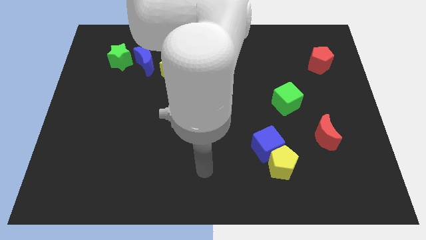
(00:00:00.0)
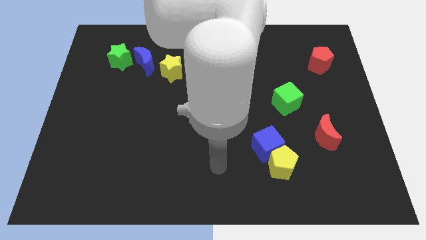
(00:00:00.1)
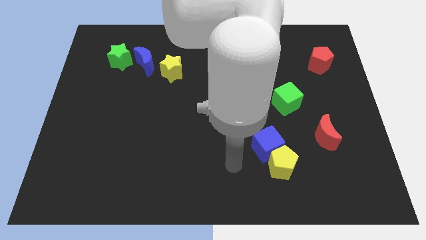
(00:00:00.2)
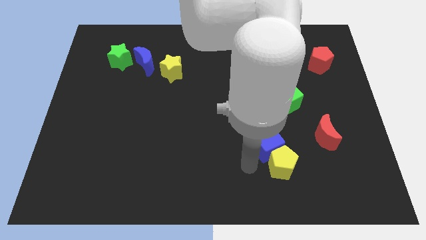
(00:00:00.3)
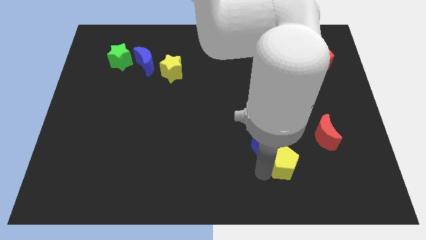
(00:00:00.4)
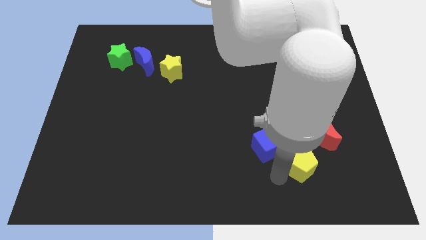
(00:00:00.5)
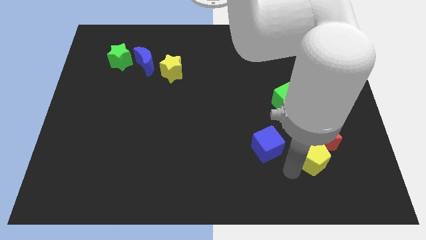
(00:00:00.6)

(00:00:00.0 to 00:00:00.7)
separate the blue cube from the yellow pentagon

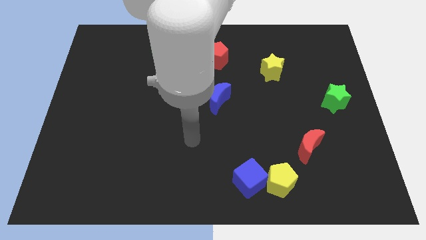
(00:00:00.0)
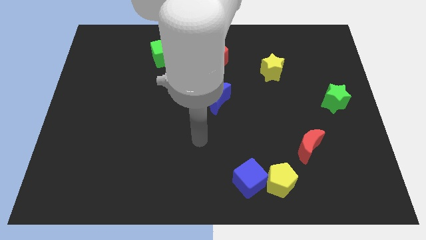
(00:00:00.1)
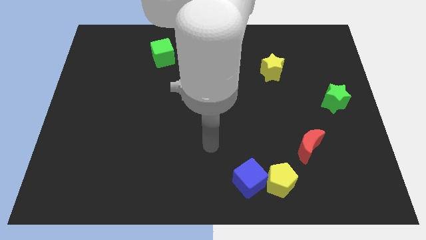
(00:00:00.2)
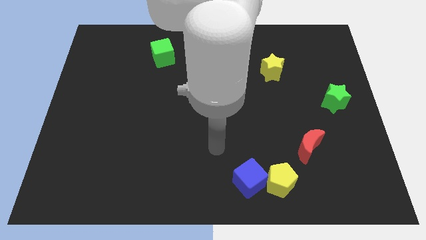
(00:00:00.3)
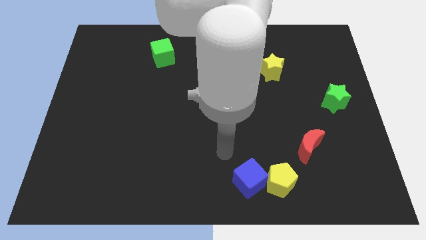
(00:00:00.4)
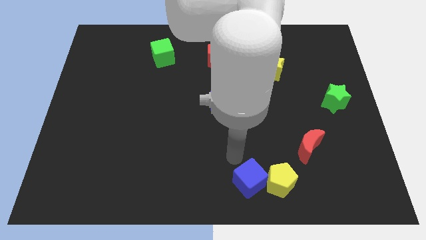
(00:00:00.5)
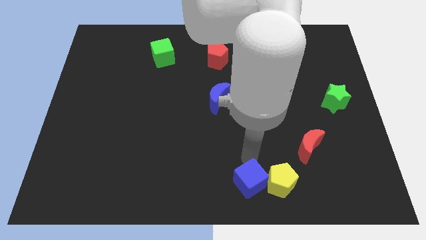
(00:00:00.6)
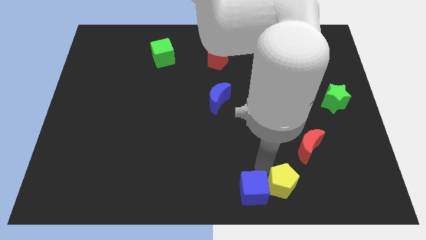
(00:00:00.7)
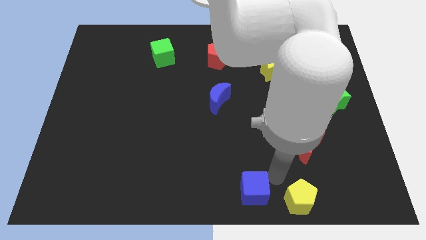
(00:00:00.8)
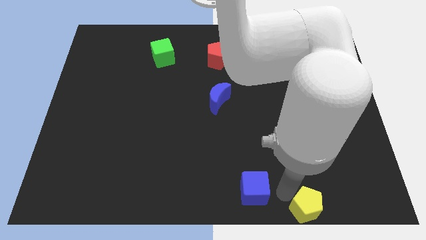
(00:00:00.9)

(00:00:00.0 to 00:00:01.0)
pull the blue cube apart from the yellow pentagon

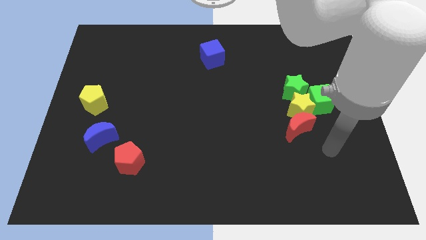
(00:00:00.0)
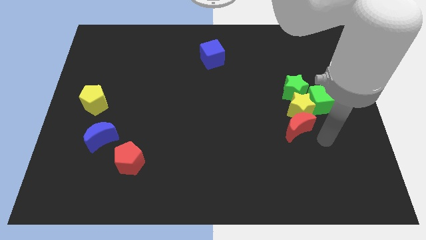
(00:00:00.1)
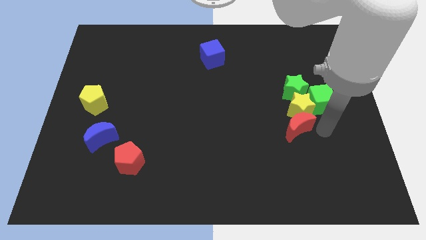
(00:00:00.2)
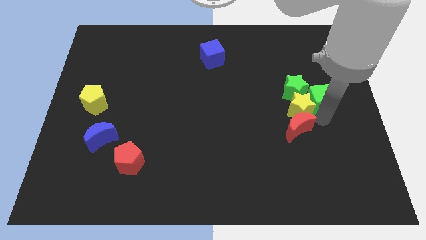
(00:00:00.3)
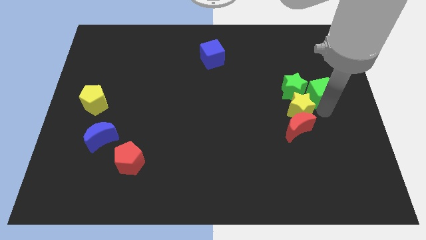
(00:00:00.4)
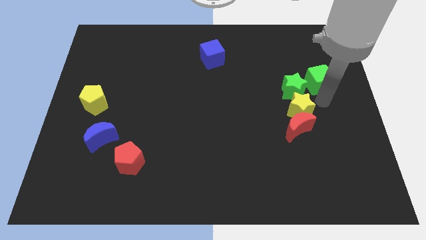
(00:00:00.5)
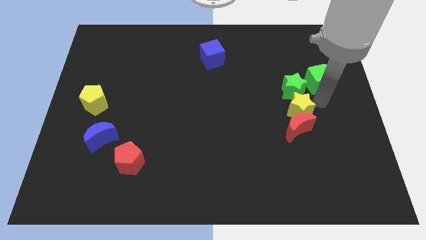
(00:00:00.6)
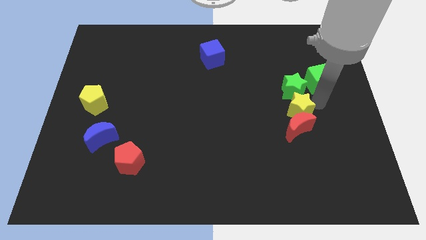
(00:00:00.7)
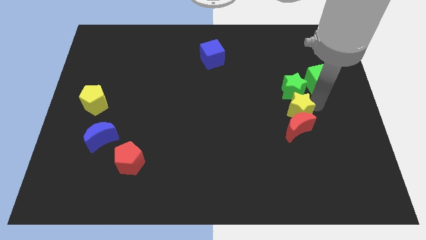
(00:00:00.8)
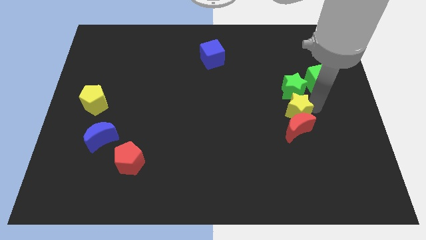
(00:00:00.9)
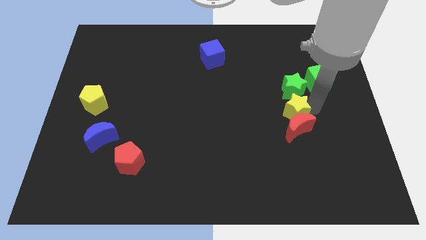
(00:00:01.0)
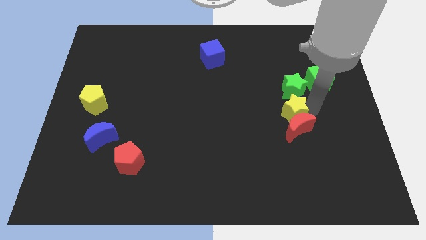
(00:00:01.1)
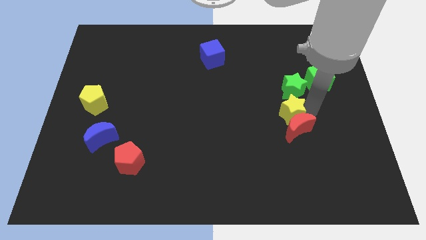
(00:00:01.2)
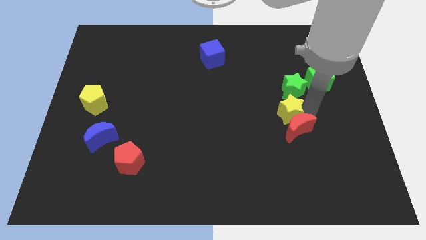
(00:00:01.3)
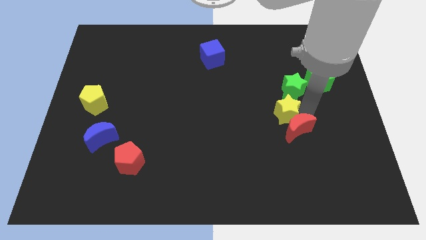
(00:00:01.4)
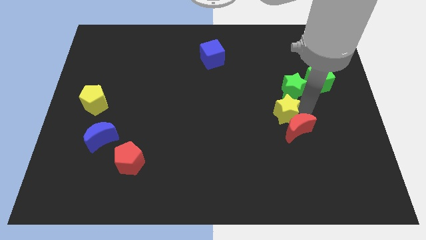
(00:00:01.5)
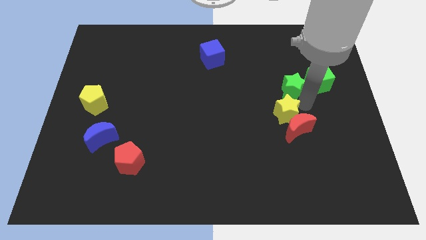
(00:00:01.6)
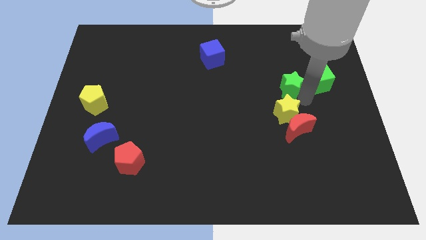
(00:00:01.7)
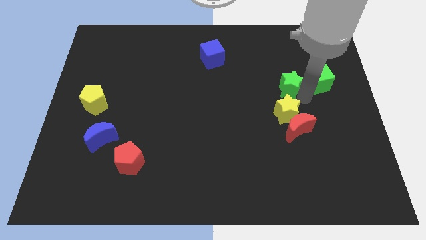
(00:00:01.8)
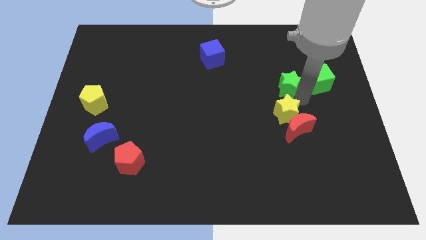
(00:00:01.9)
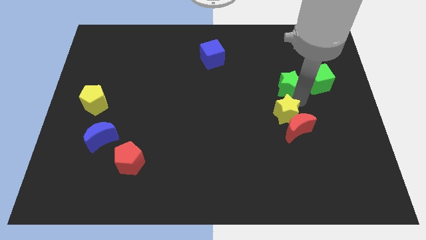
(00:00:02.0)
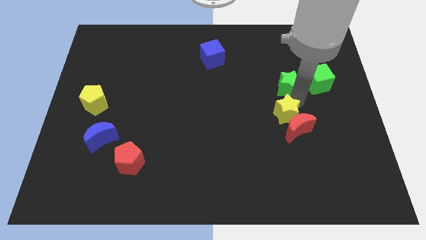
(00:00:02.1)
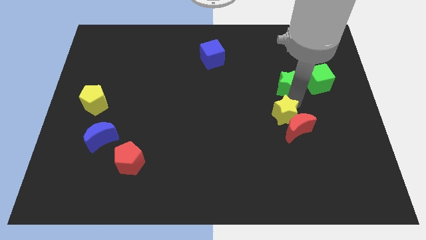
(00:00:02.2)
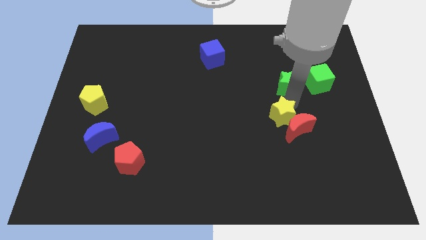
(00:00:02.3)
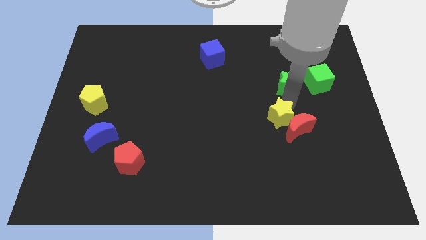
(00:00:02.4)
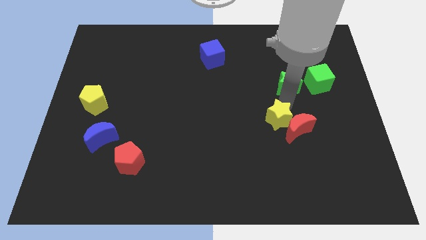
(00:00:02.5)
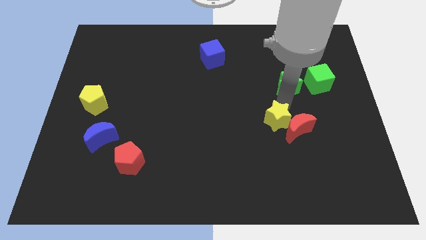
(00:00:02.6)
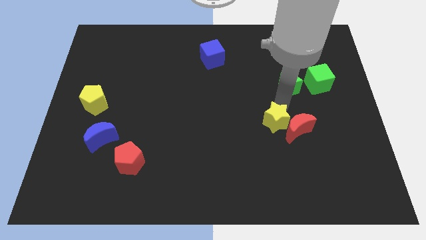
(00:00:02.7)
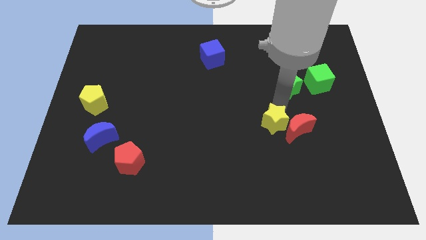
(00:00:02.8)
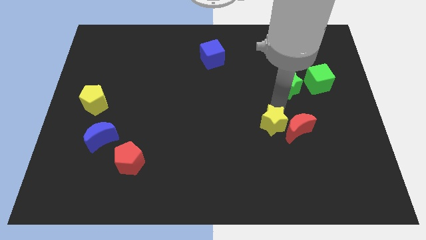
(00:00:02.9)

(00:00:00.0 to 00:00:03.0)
pull the yellow star apart from the green star, green cube, and red moon

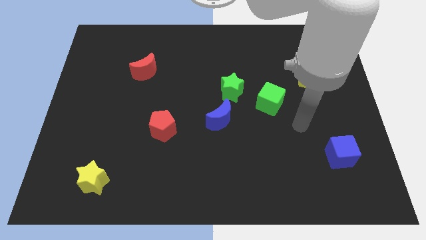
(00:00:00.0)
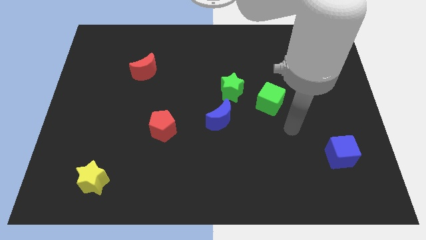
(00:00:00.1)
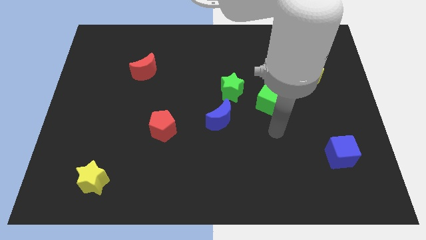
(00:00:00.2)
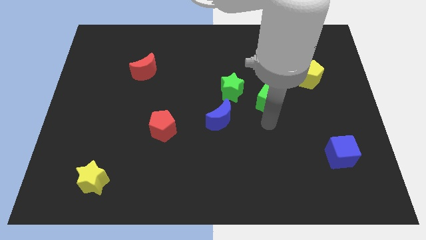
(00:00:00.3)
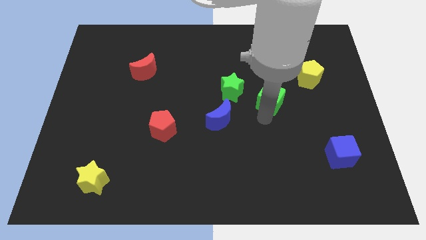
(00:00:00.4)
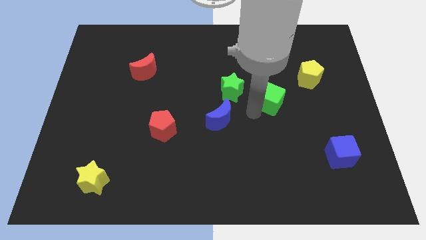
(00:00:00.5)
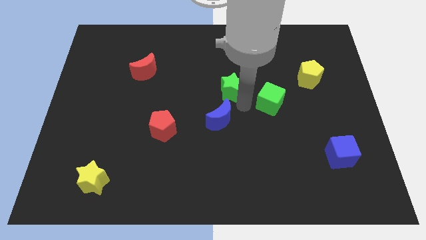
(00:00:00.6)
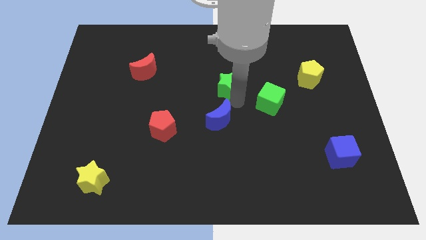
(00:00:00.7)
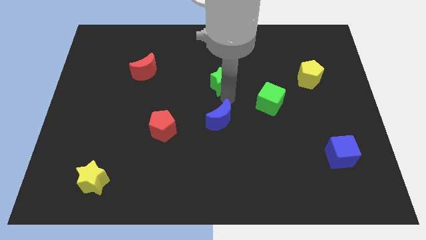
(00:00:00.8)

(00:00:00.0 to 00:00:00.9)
separate the blue moon from the green star

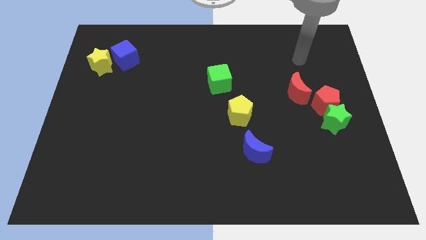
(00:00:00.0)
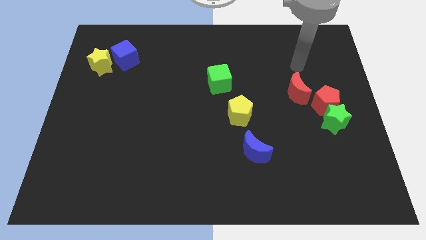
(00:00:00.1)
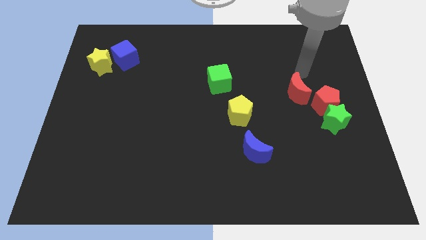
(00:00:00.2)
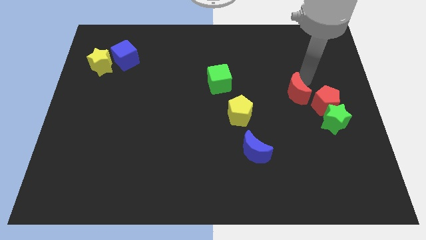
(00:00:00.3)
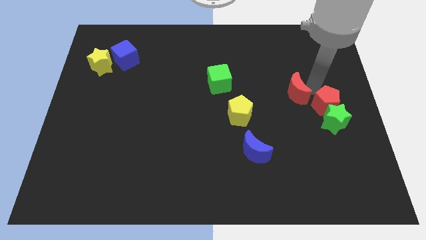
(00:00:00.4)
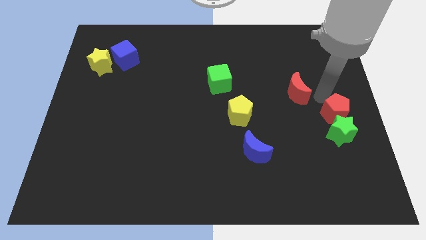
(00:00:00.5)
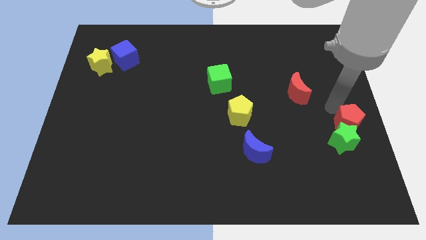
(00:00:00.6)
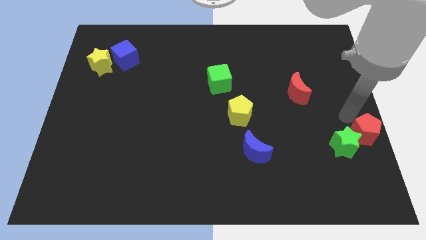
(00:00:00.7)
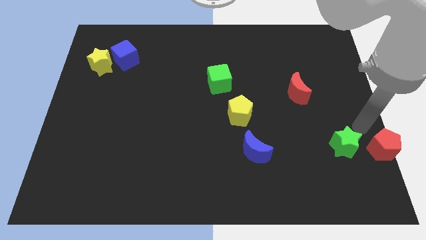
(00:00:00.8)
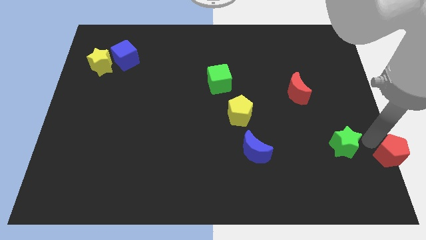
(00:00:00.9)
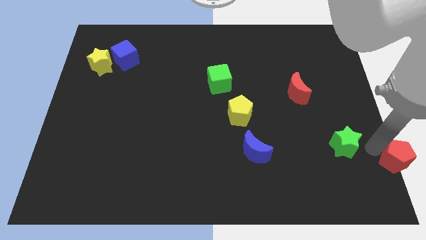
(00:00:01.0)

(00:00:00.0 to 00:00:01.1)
pull the green star apart from the red pentagon

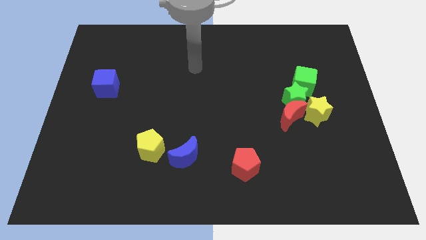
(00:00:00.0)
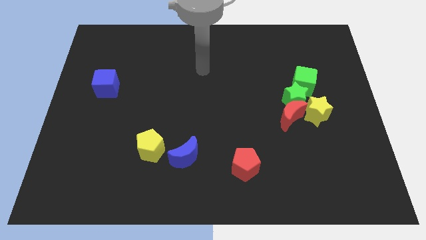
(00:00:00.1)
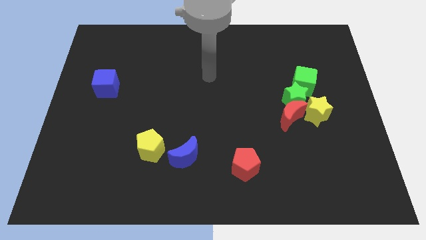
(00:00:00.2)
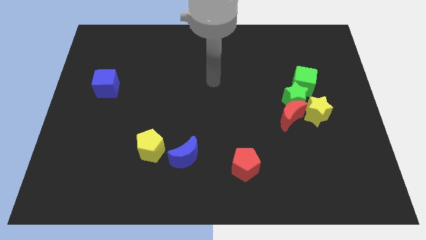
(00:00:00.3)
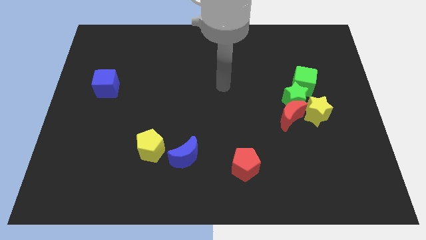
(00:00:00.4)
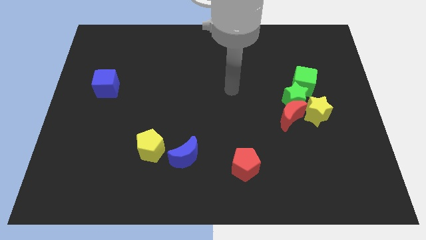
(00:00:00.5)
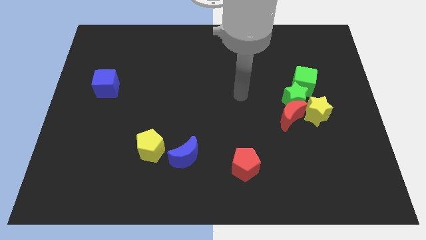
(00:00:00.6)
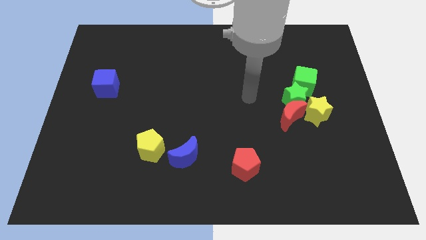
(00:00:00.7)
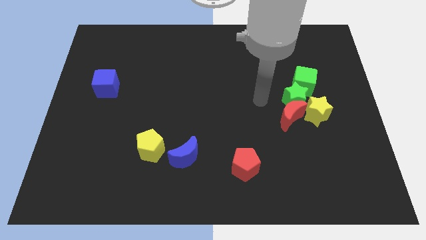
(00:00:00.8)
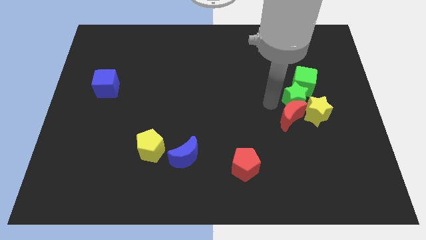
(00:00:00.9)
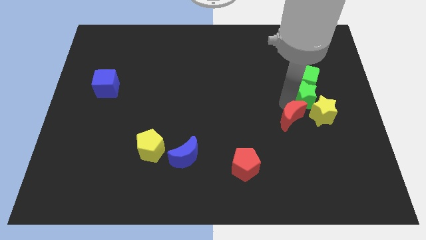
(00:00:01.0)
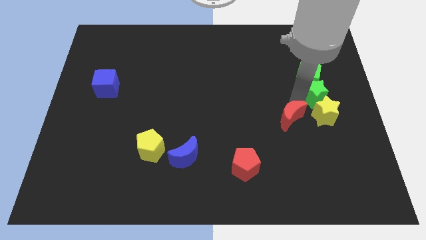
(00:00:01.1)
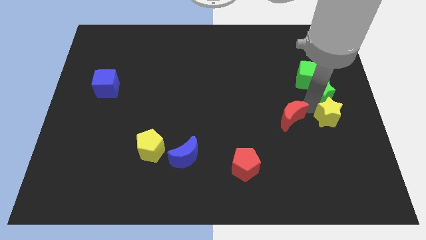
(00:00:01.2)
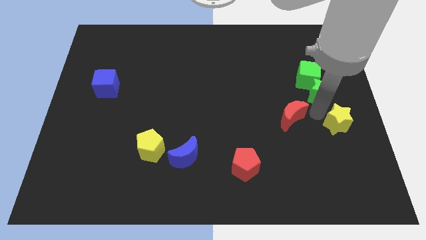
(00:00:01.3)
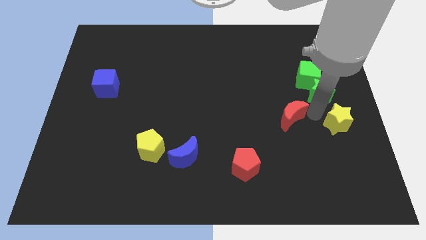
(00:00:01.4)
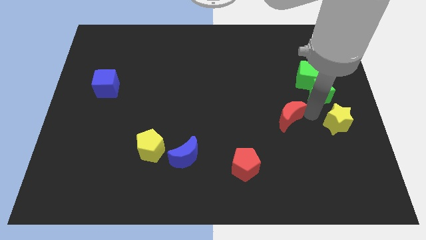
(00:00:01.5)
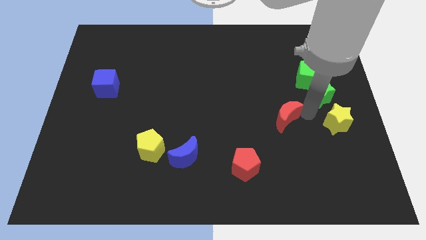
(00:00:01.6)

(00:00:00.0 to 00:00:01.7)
move the red moon away from the green star and yellow star

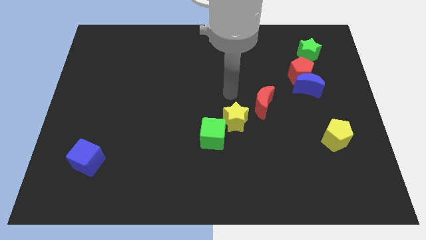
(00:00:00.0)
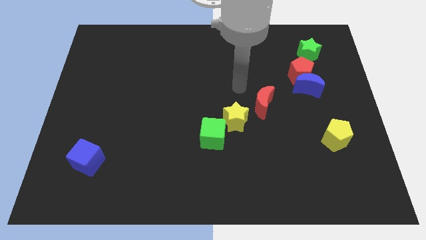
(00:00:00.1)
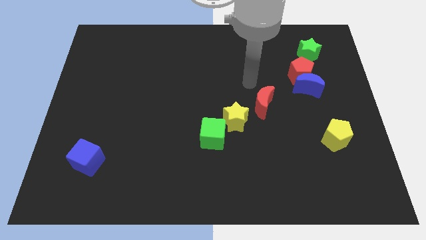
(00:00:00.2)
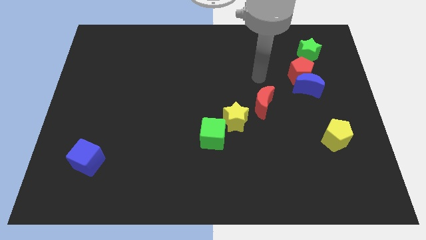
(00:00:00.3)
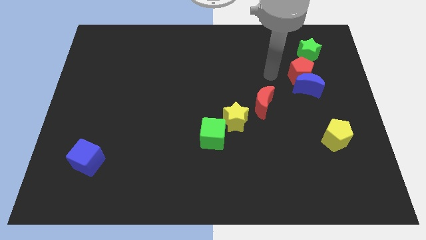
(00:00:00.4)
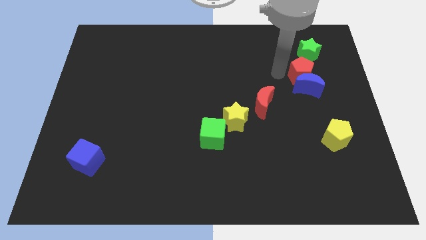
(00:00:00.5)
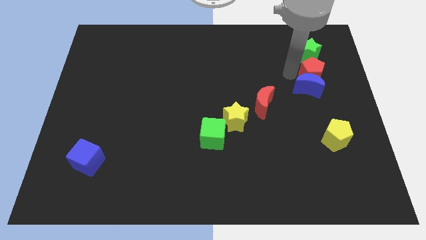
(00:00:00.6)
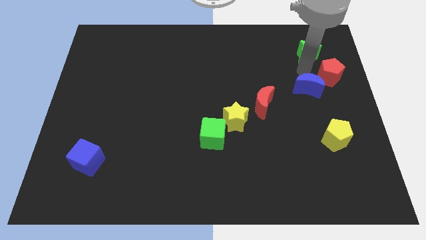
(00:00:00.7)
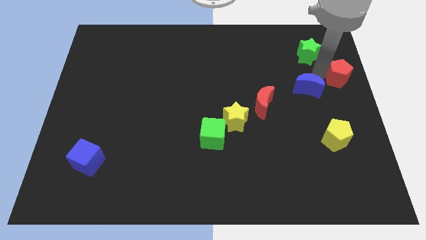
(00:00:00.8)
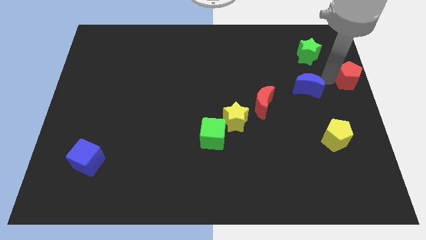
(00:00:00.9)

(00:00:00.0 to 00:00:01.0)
separate the blue moon from the red pentagon
